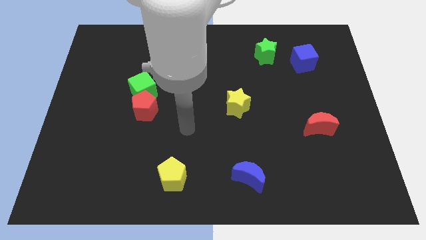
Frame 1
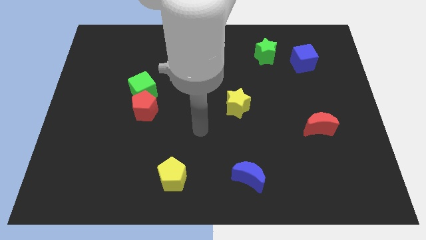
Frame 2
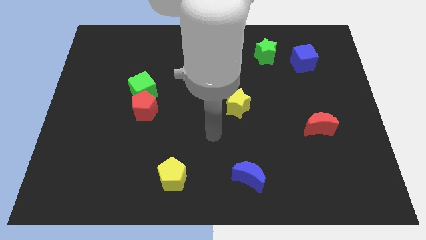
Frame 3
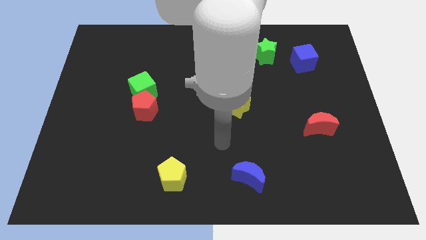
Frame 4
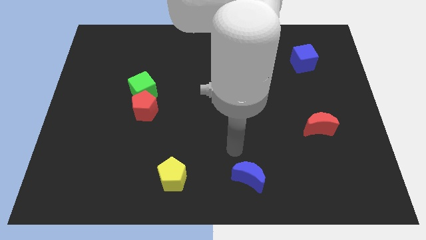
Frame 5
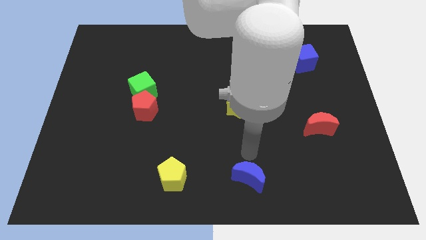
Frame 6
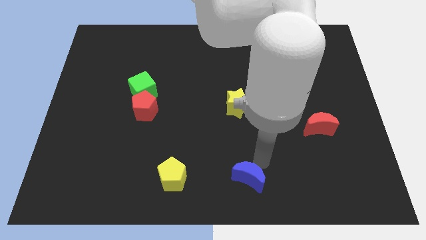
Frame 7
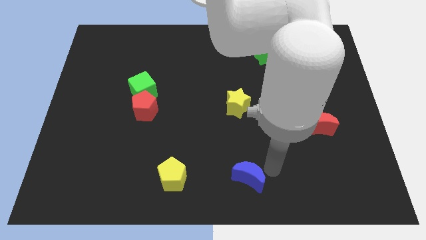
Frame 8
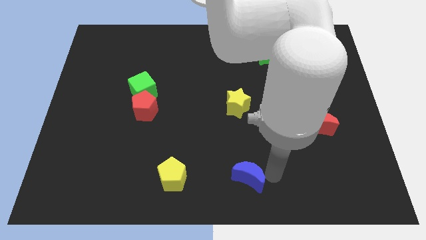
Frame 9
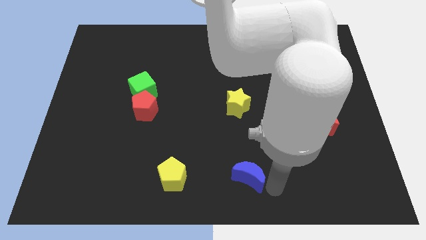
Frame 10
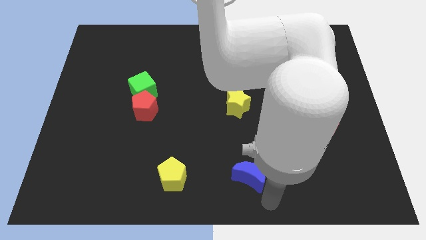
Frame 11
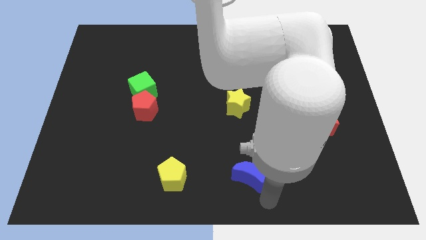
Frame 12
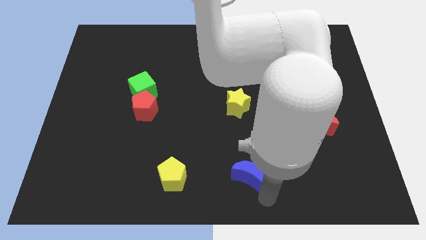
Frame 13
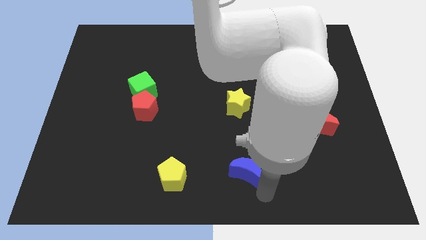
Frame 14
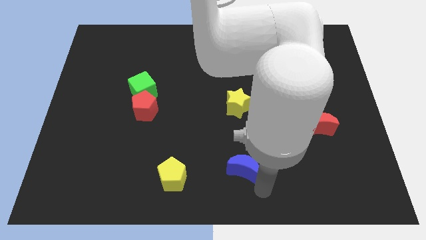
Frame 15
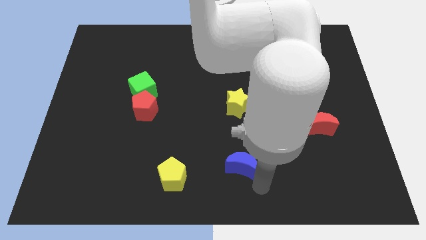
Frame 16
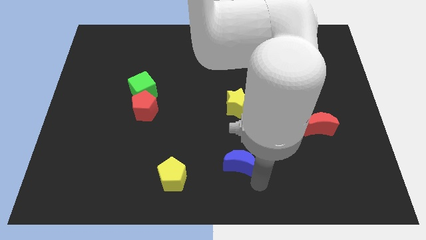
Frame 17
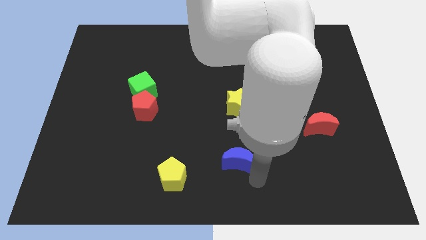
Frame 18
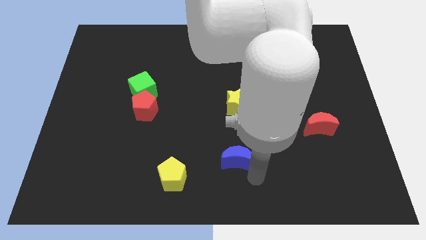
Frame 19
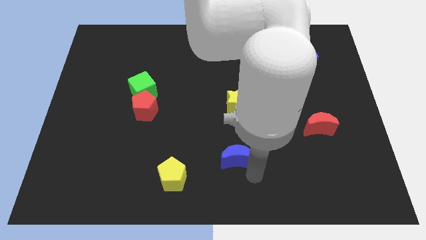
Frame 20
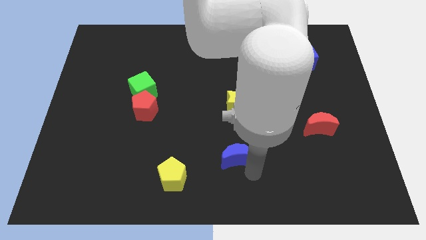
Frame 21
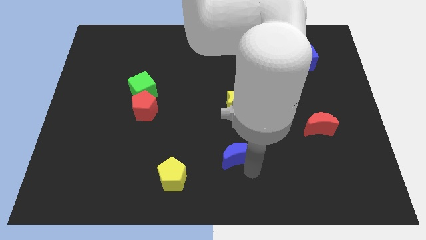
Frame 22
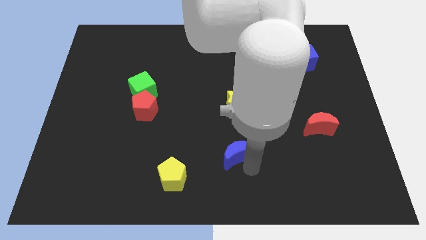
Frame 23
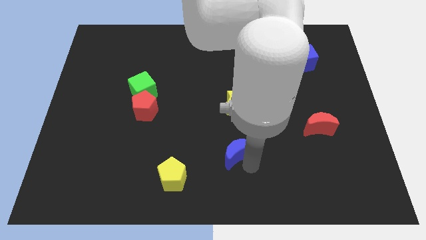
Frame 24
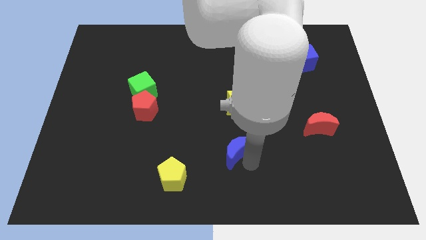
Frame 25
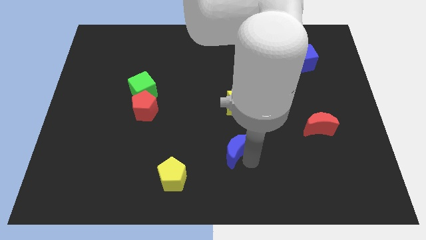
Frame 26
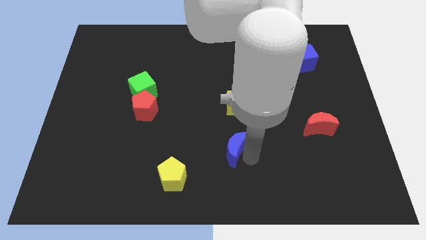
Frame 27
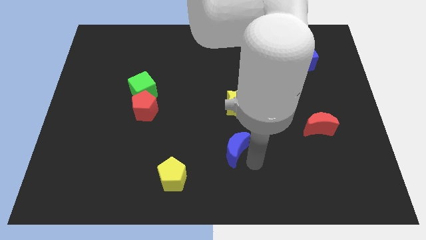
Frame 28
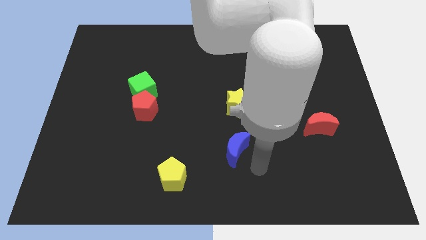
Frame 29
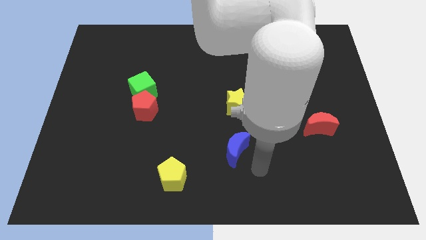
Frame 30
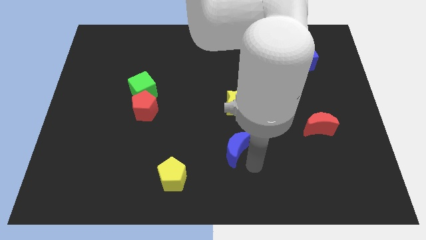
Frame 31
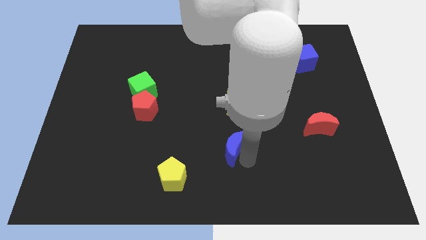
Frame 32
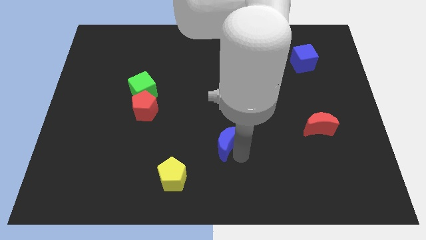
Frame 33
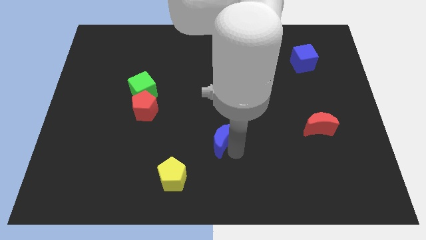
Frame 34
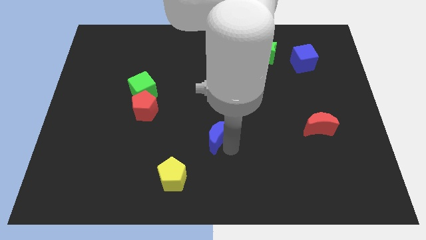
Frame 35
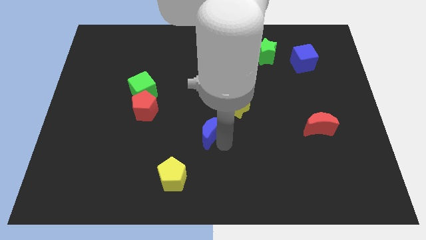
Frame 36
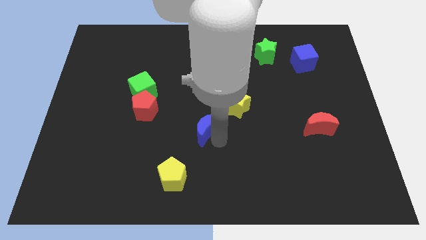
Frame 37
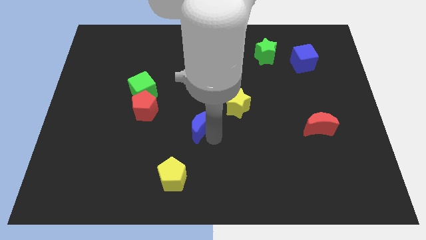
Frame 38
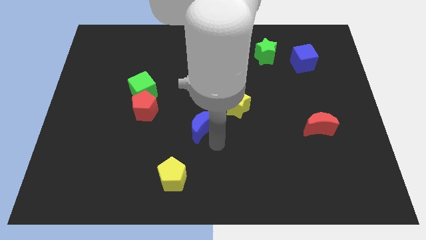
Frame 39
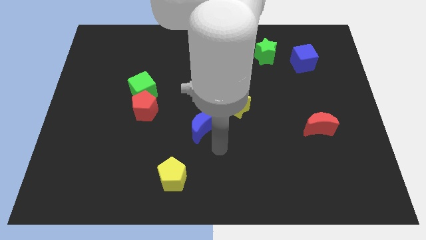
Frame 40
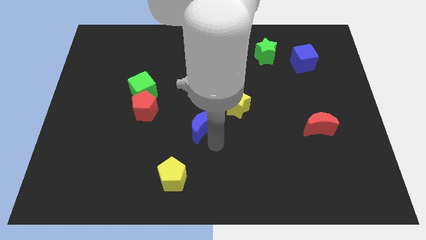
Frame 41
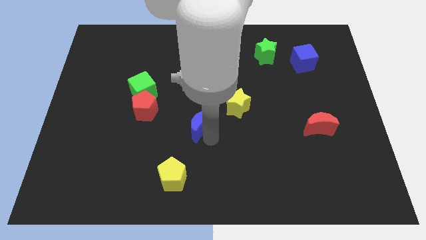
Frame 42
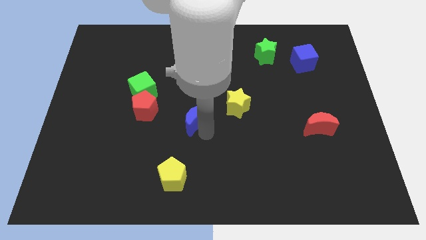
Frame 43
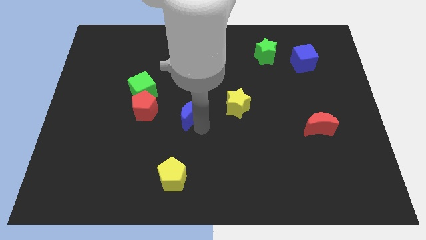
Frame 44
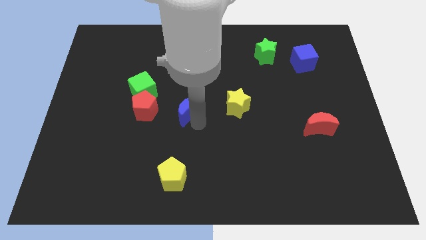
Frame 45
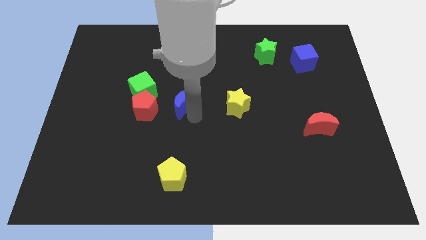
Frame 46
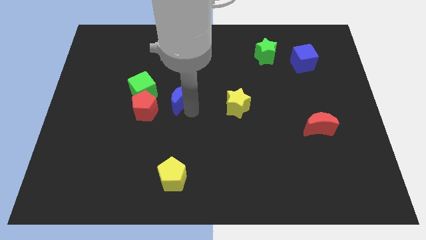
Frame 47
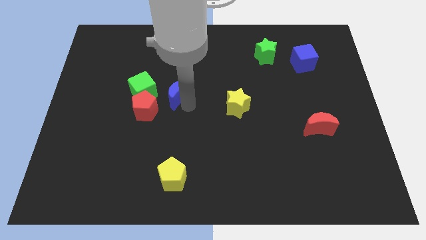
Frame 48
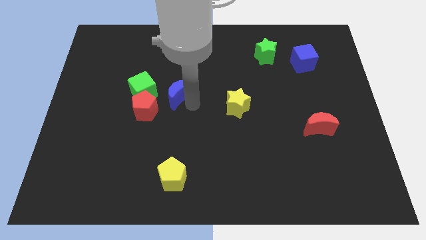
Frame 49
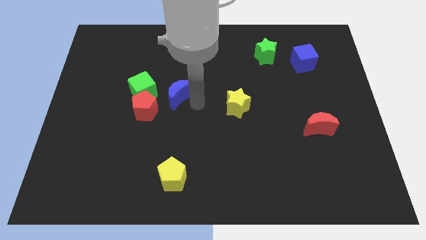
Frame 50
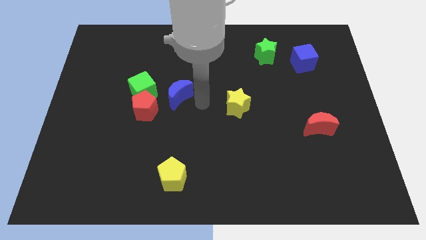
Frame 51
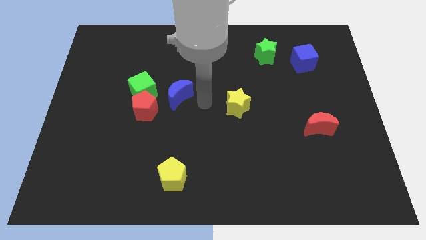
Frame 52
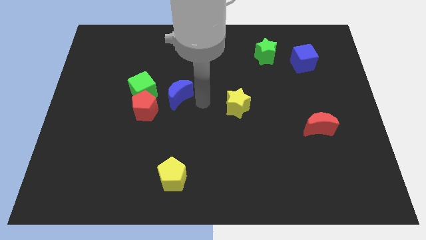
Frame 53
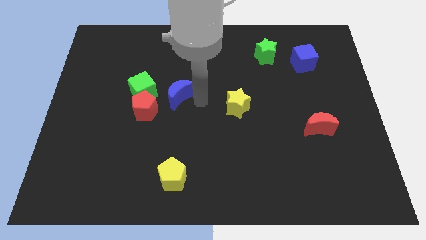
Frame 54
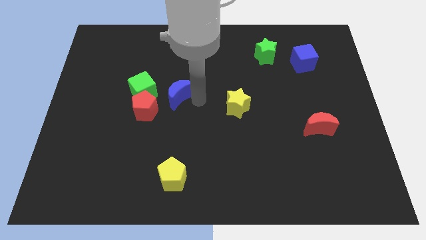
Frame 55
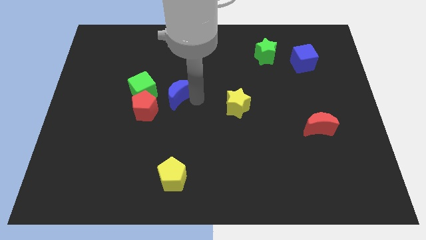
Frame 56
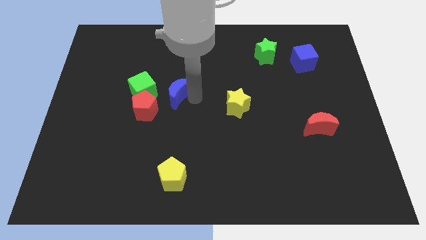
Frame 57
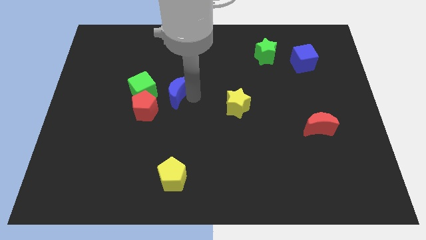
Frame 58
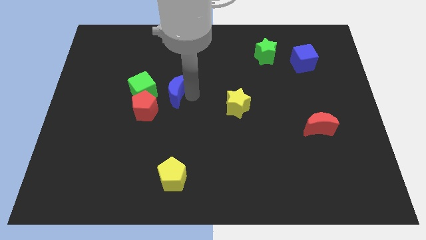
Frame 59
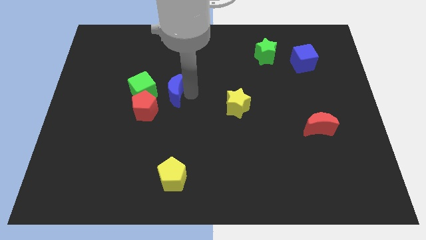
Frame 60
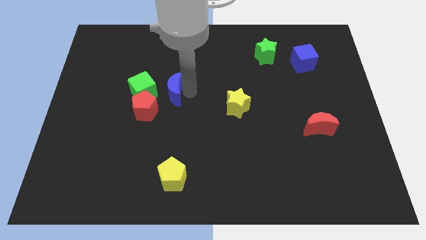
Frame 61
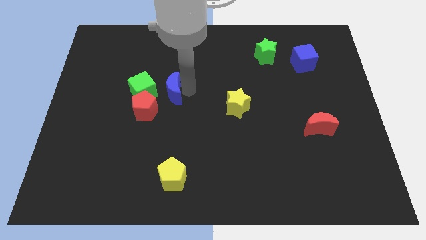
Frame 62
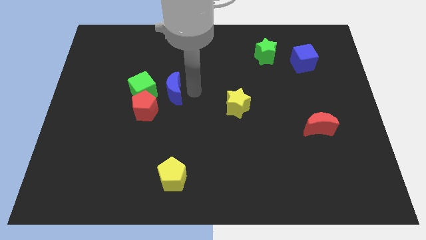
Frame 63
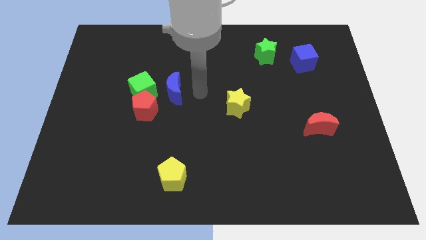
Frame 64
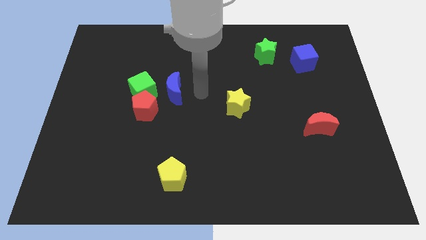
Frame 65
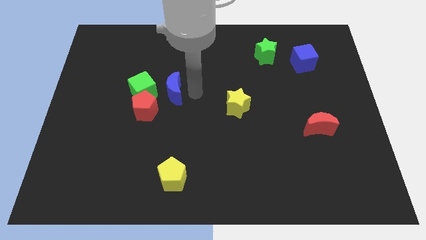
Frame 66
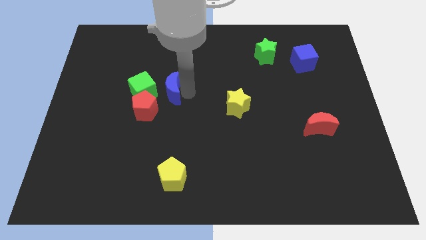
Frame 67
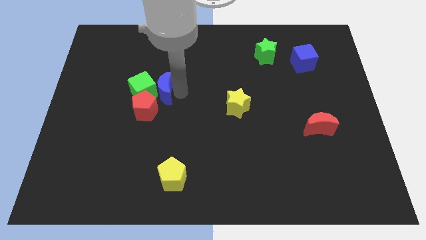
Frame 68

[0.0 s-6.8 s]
slide the blue moon towards the green cube
